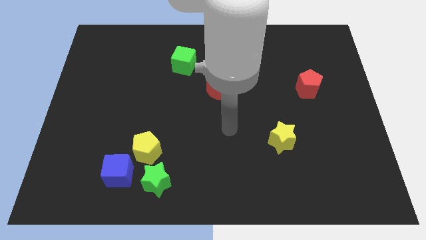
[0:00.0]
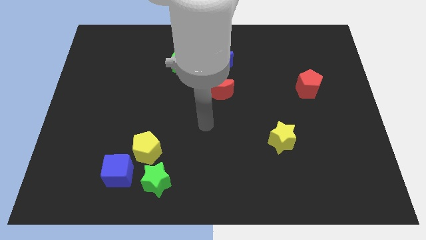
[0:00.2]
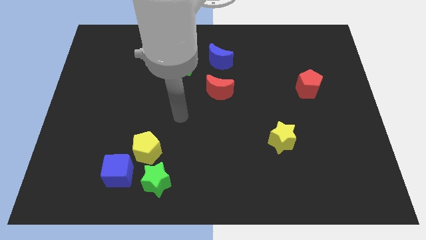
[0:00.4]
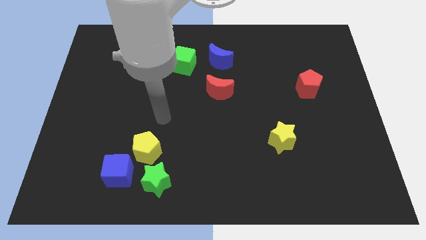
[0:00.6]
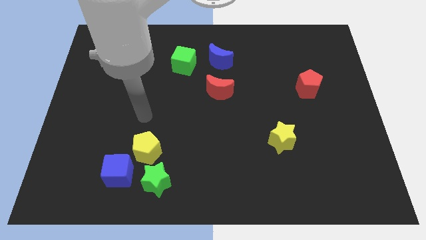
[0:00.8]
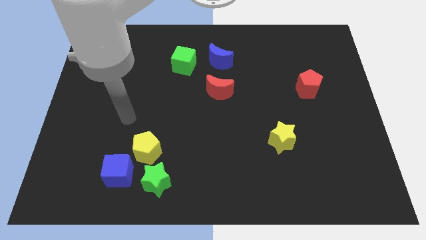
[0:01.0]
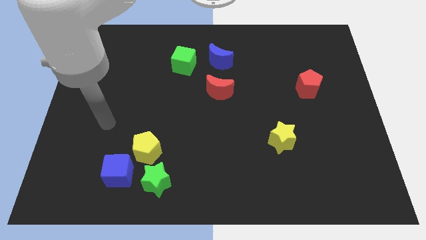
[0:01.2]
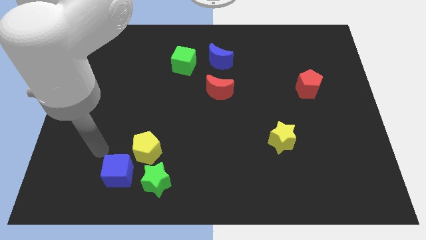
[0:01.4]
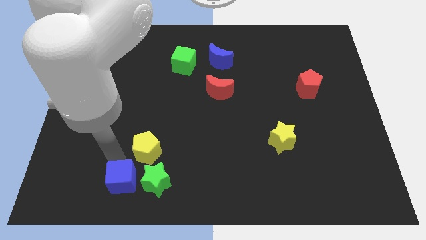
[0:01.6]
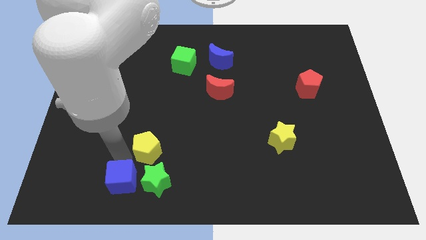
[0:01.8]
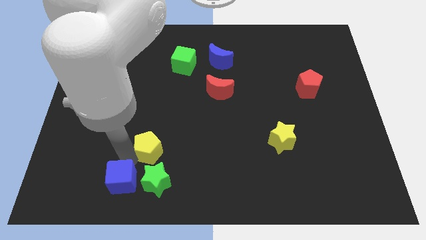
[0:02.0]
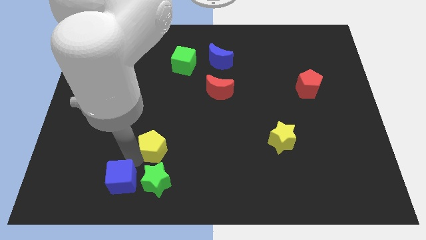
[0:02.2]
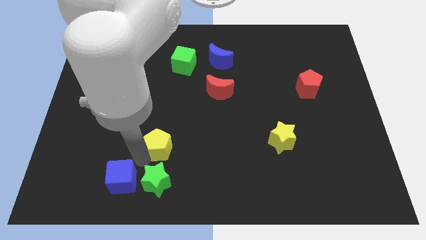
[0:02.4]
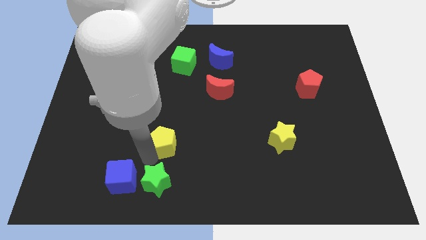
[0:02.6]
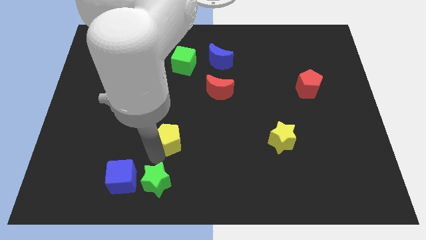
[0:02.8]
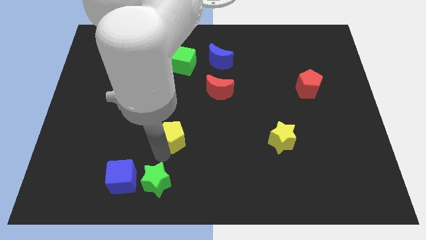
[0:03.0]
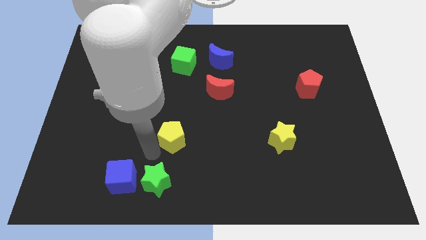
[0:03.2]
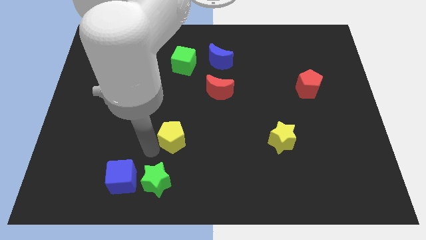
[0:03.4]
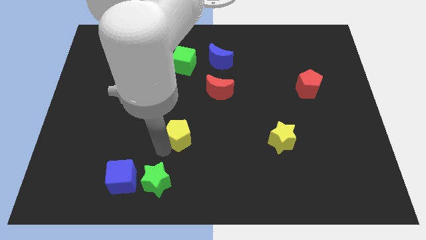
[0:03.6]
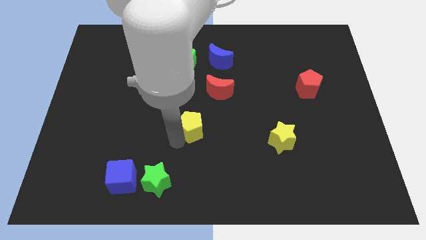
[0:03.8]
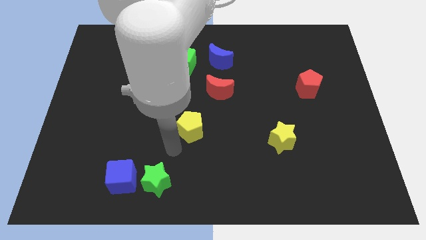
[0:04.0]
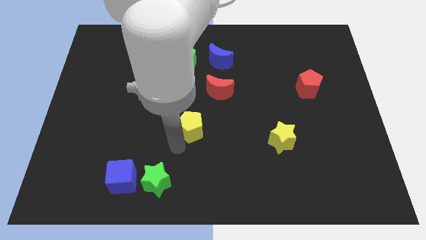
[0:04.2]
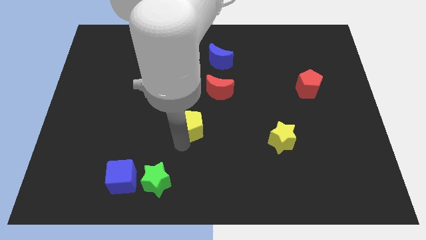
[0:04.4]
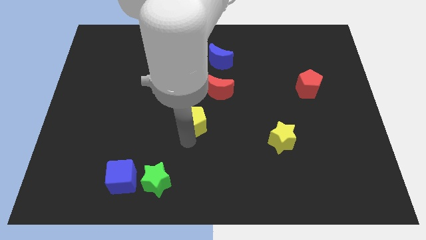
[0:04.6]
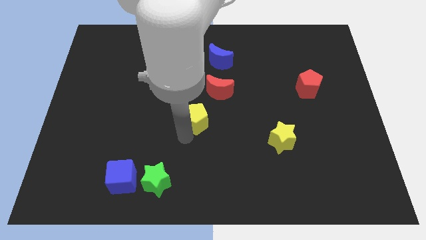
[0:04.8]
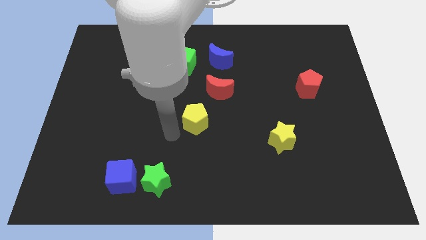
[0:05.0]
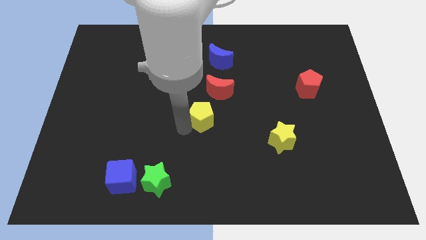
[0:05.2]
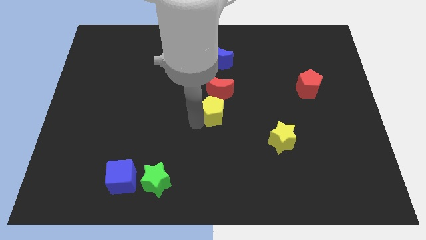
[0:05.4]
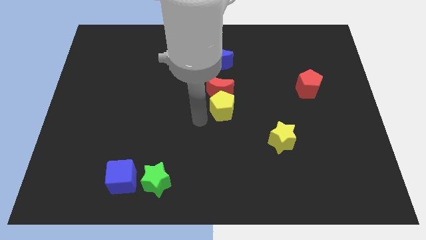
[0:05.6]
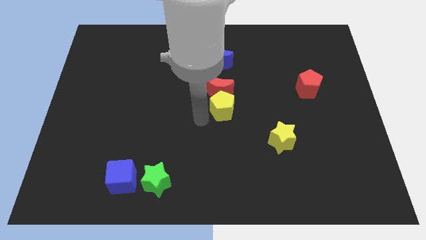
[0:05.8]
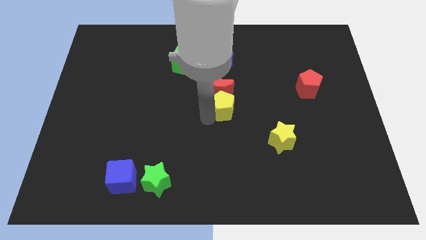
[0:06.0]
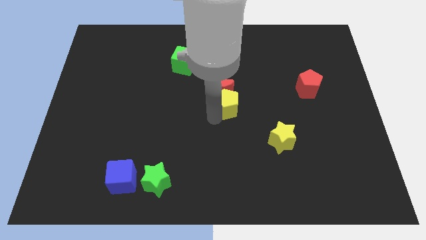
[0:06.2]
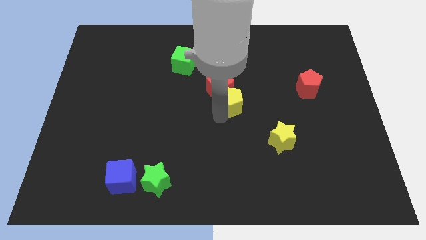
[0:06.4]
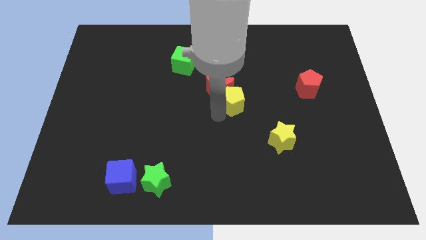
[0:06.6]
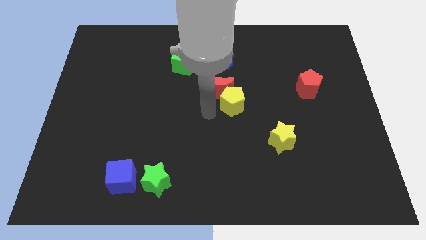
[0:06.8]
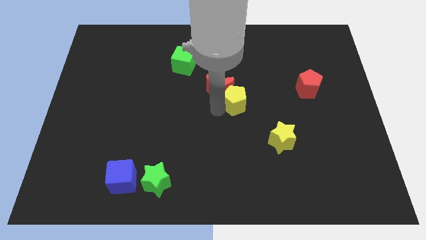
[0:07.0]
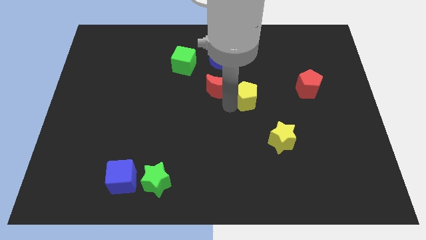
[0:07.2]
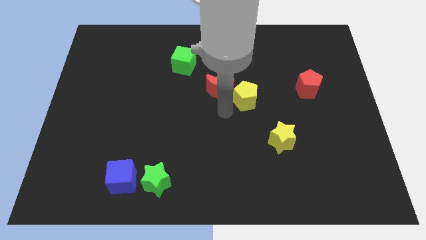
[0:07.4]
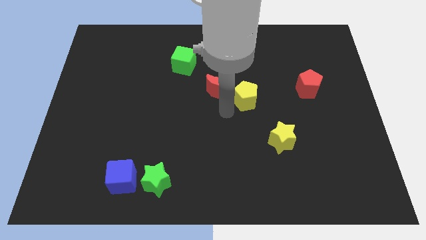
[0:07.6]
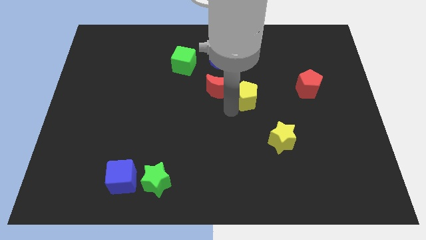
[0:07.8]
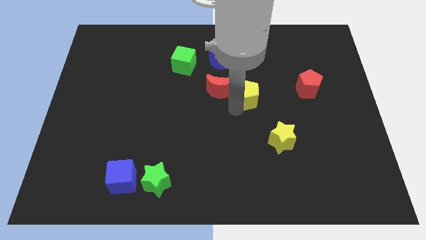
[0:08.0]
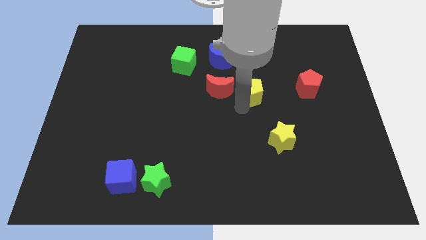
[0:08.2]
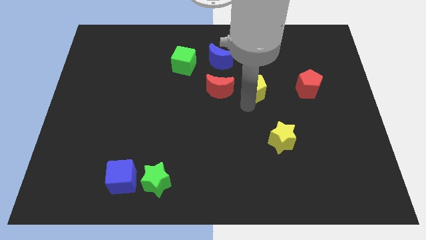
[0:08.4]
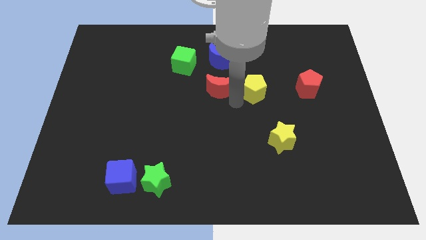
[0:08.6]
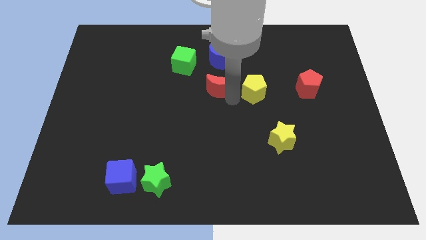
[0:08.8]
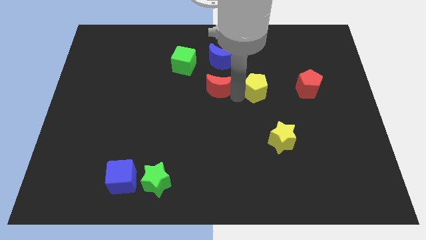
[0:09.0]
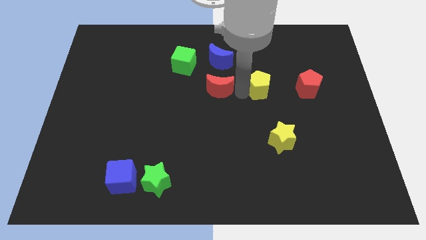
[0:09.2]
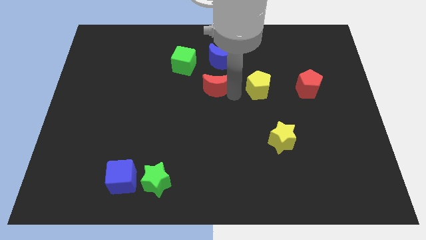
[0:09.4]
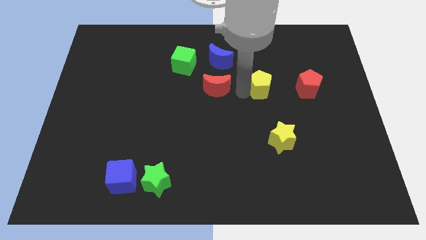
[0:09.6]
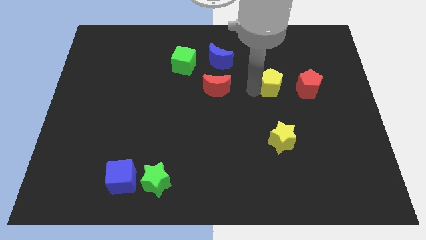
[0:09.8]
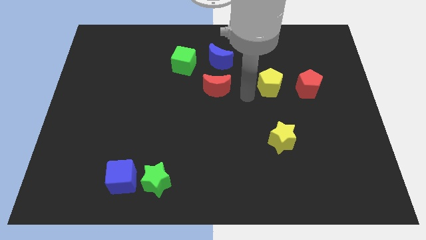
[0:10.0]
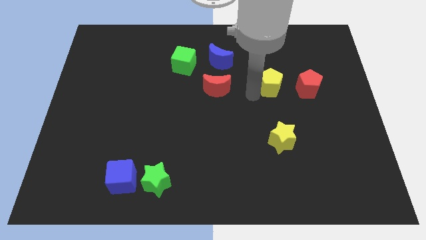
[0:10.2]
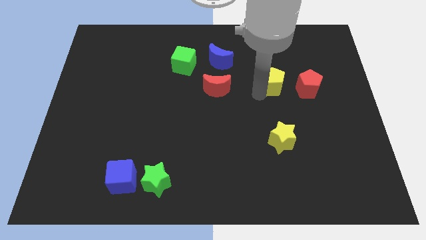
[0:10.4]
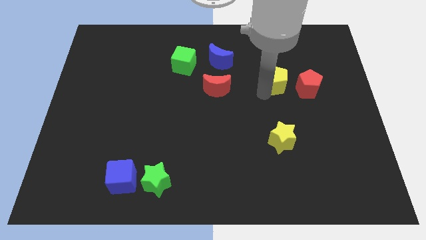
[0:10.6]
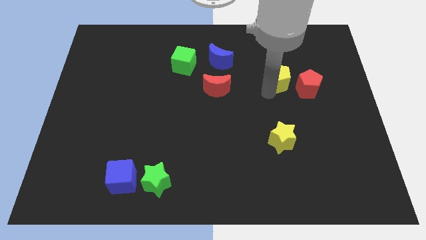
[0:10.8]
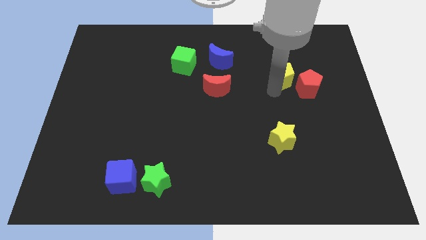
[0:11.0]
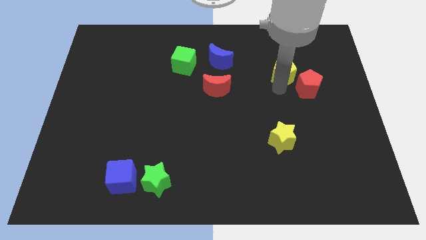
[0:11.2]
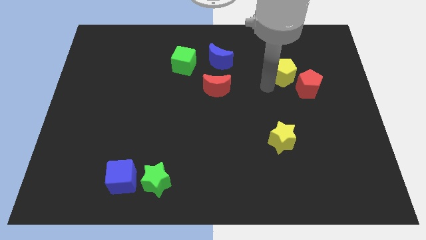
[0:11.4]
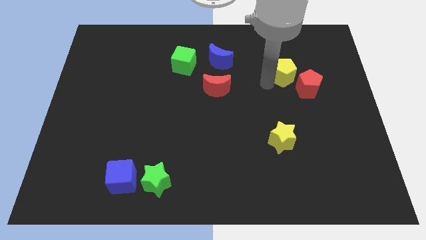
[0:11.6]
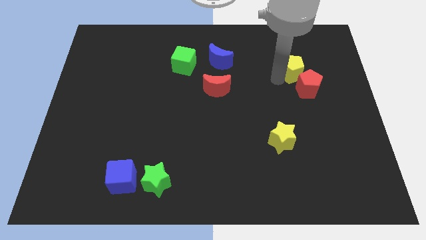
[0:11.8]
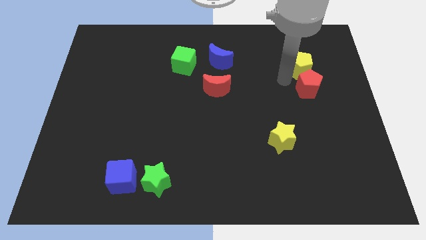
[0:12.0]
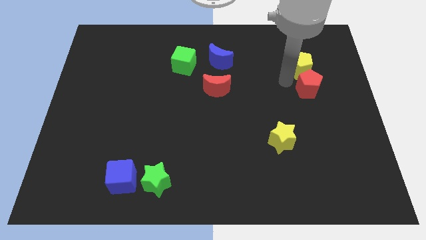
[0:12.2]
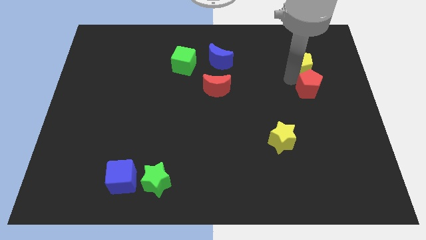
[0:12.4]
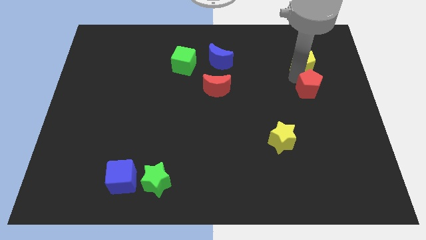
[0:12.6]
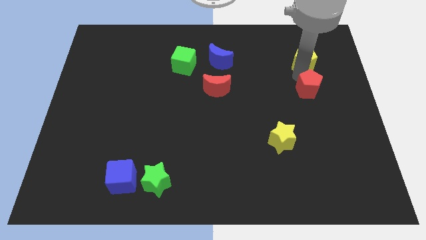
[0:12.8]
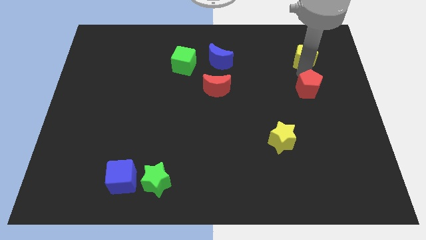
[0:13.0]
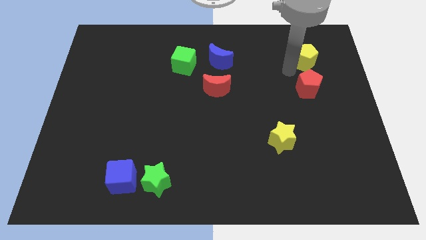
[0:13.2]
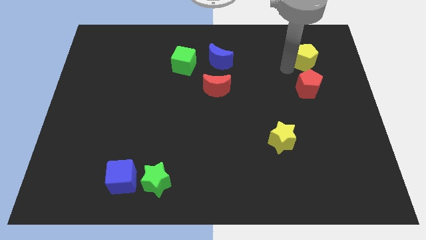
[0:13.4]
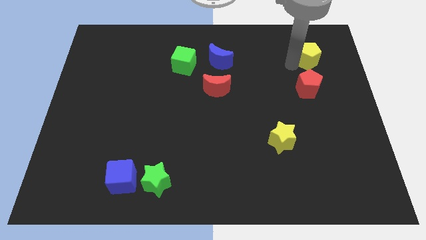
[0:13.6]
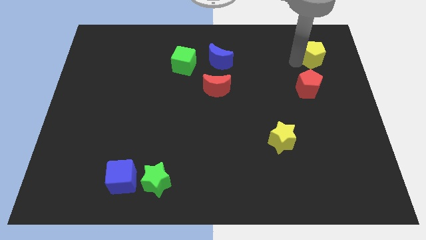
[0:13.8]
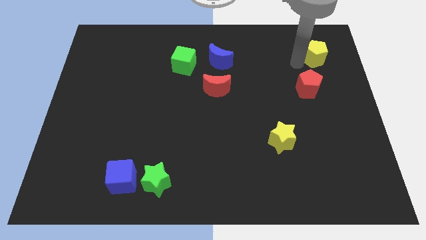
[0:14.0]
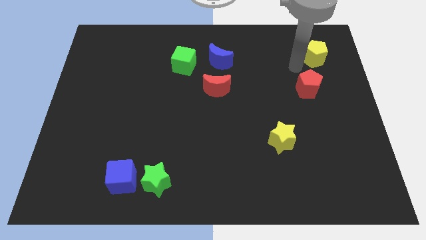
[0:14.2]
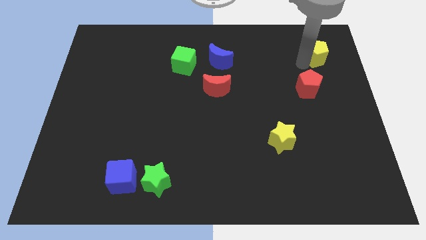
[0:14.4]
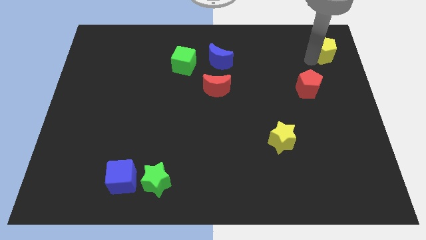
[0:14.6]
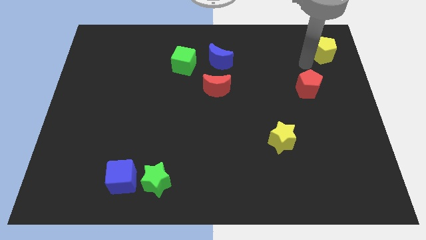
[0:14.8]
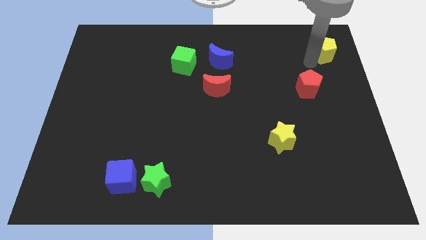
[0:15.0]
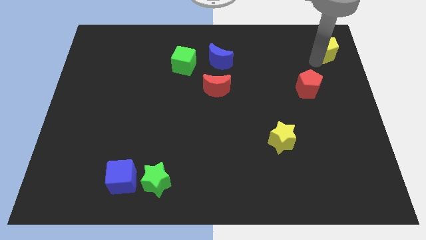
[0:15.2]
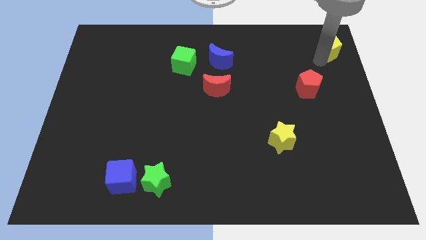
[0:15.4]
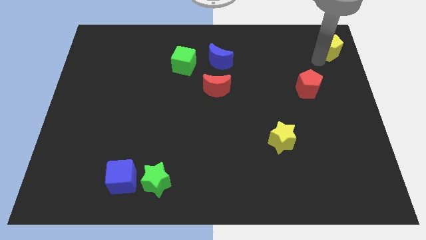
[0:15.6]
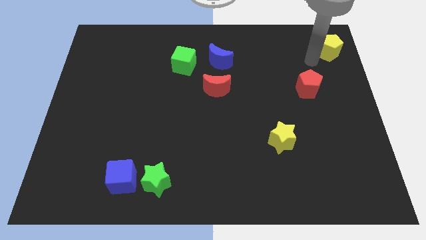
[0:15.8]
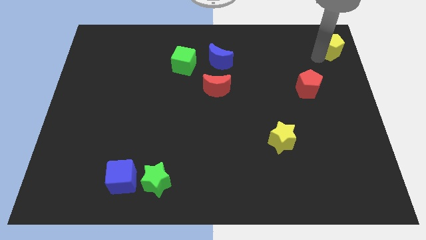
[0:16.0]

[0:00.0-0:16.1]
put the yellow pentagon to the top right of the board
